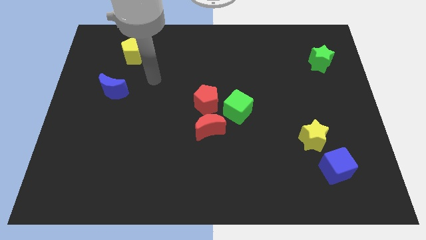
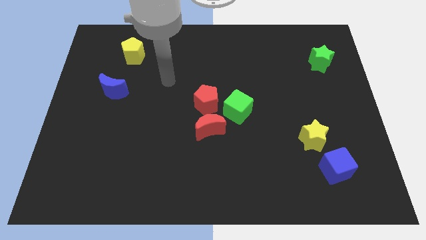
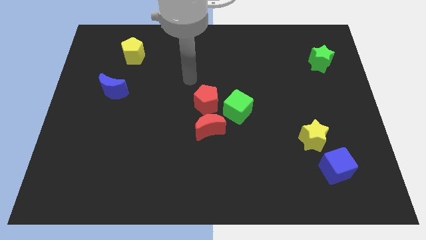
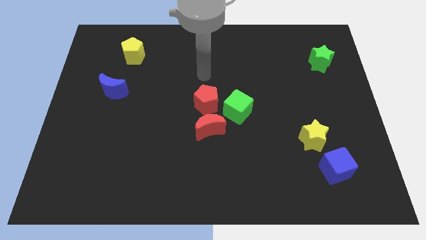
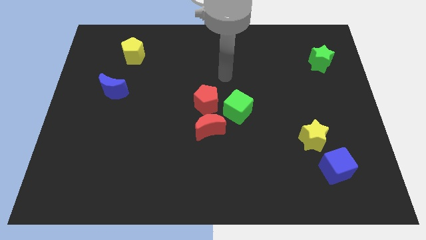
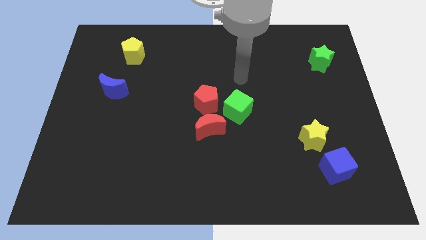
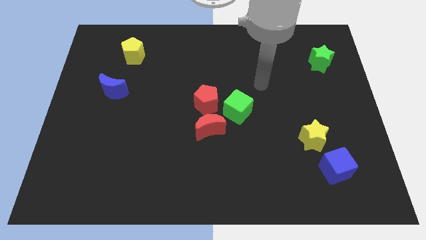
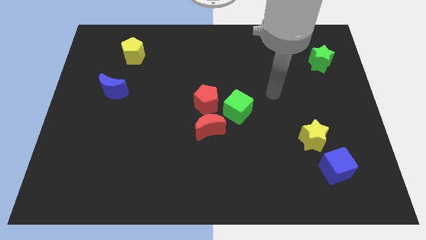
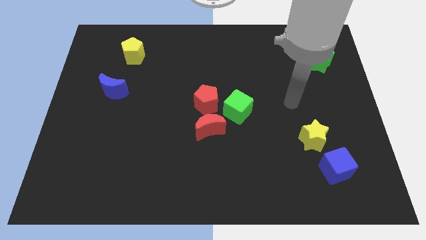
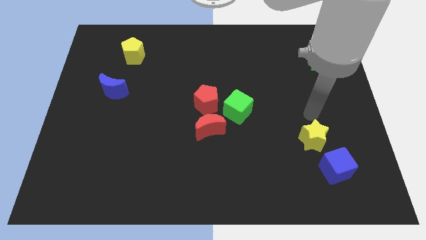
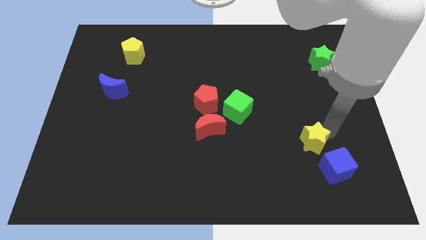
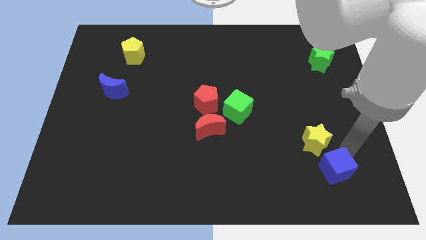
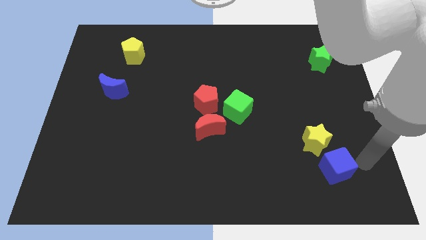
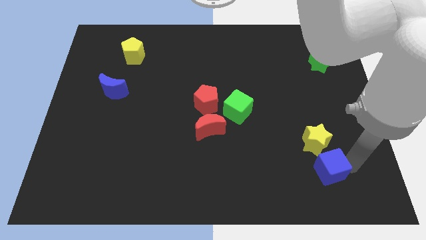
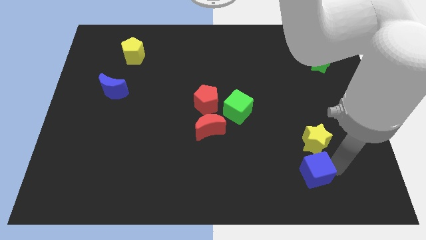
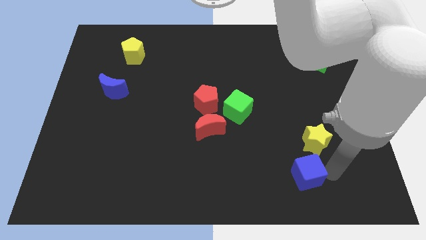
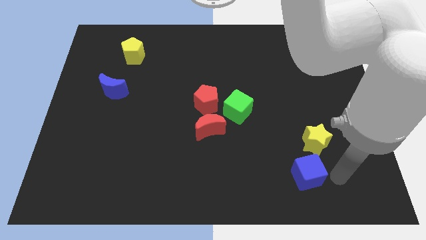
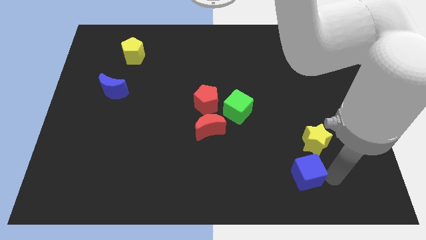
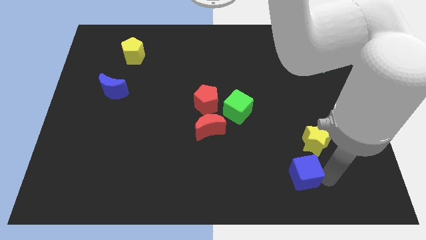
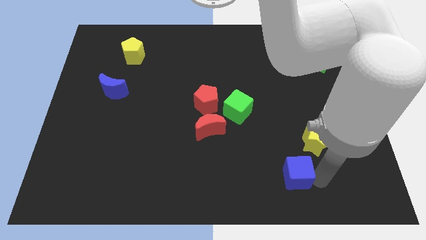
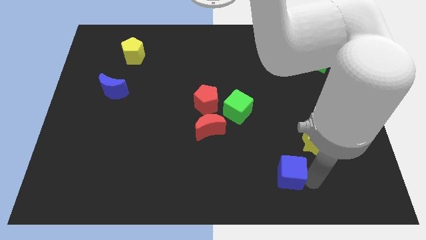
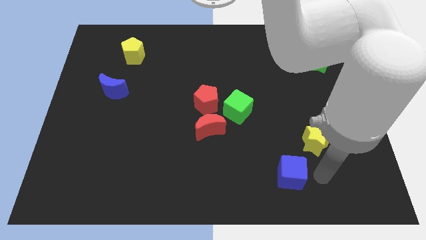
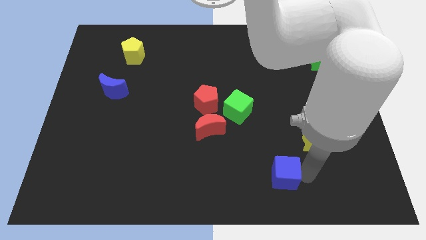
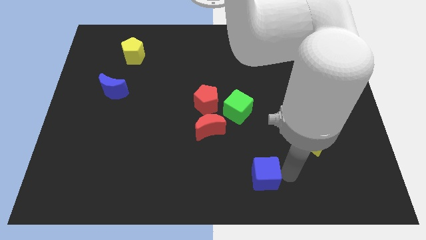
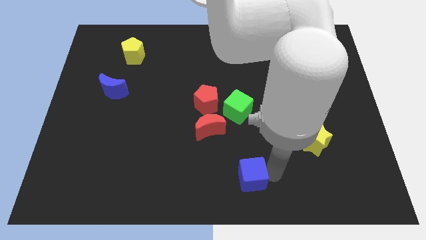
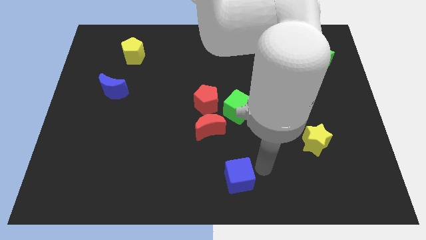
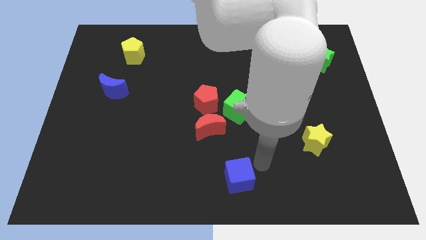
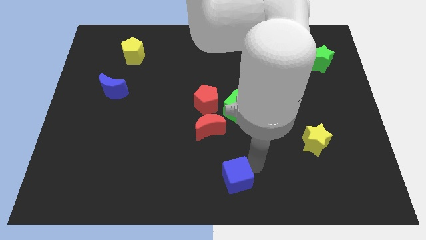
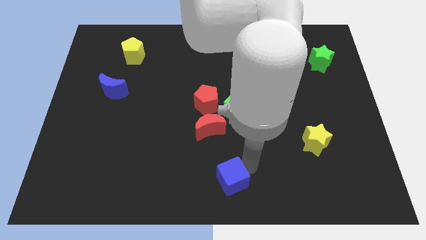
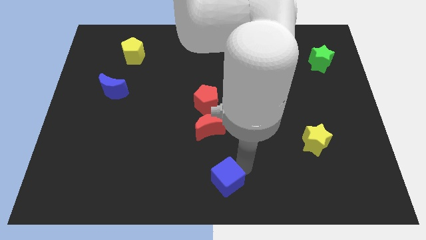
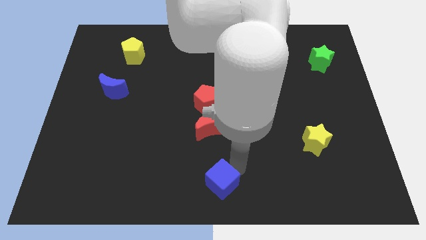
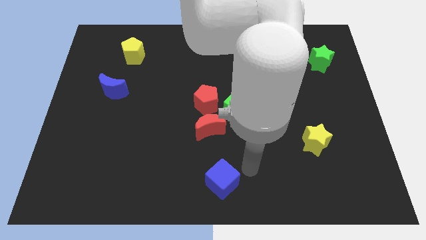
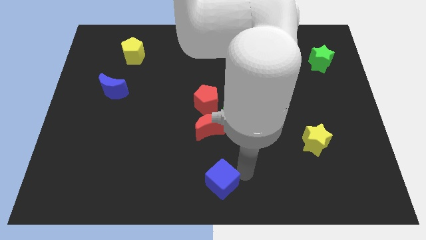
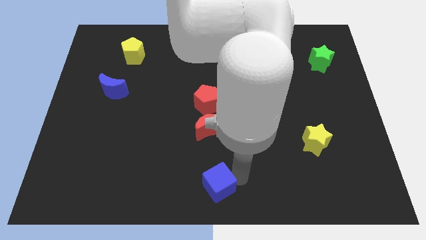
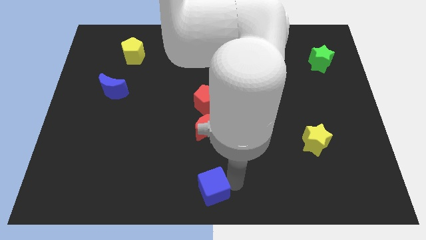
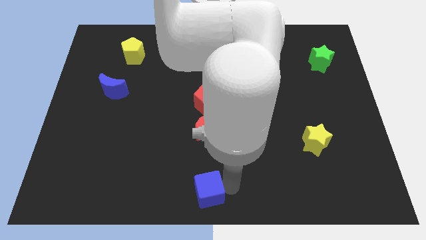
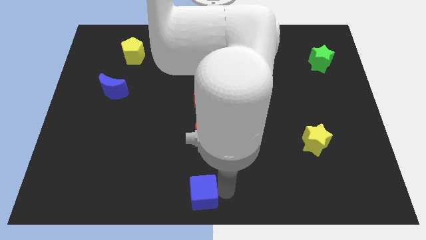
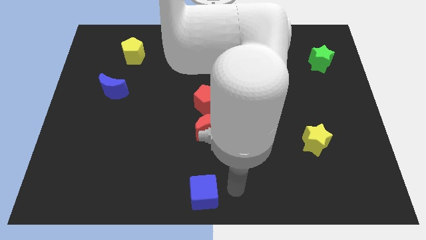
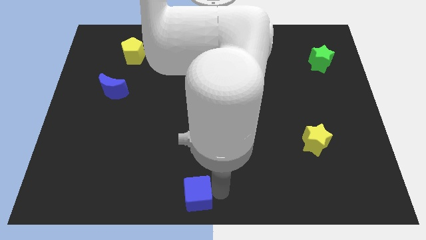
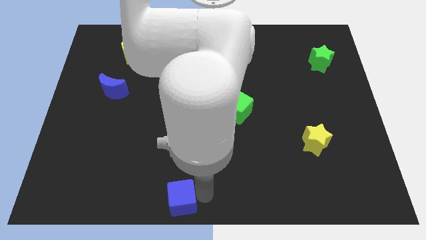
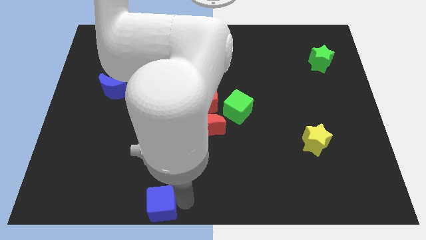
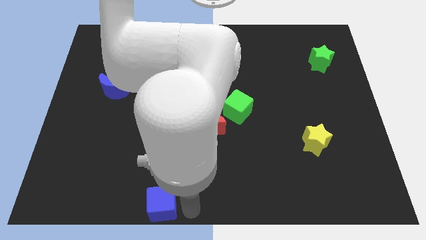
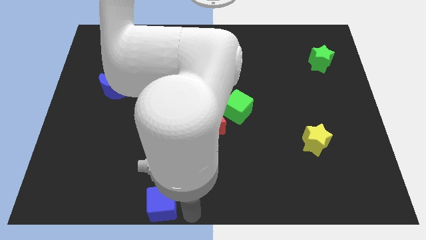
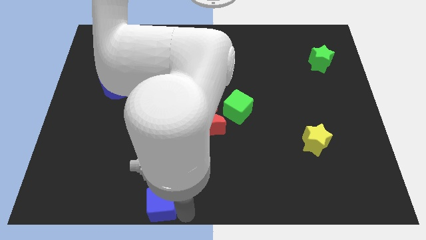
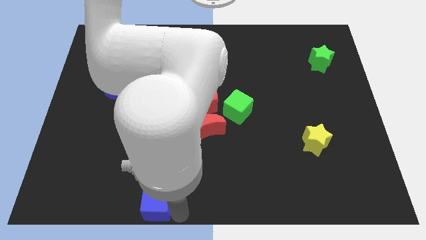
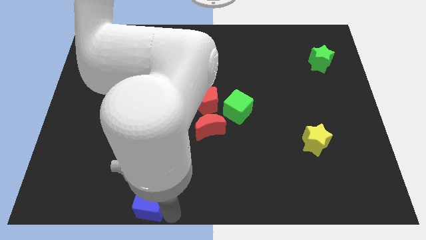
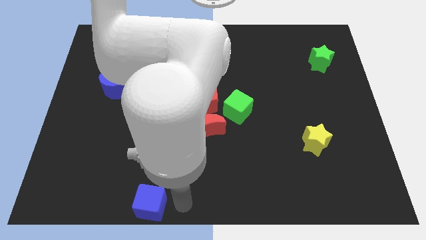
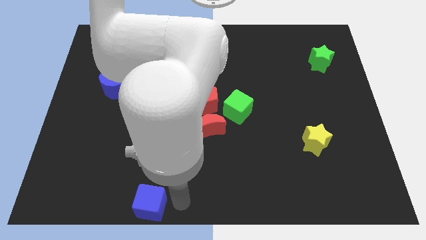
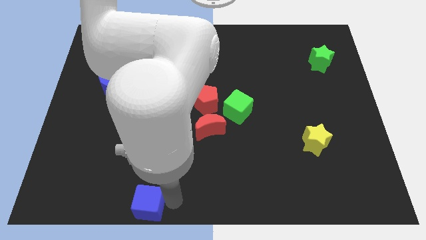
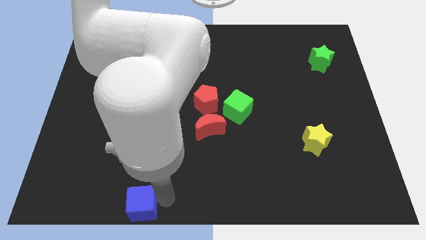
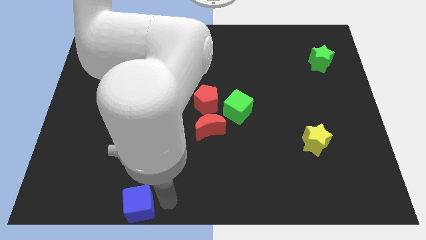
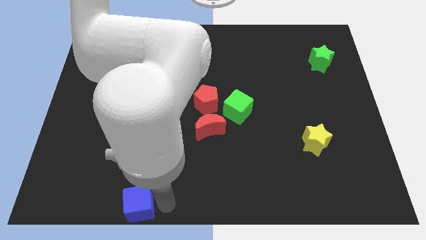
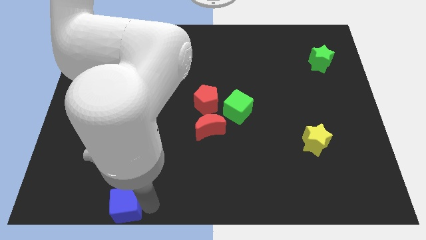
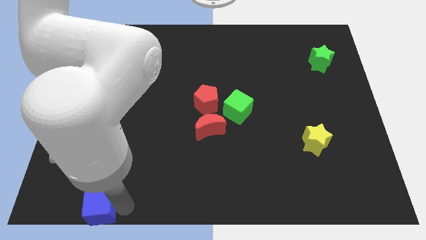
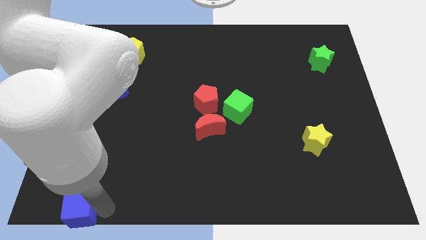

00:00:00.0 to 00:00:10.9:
slide the blue cube to the bottom left corner
